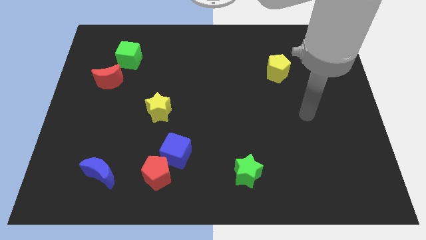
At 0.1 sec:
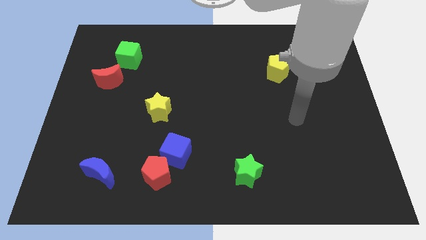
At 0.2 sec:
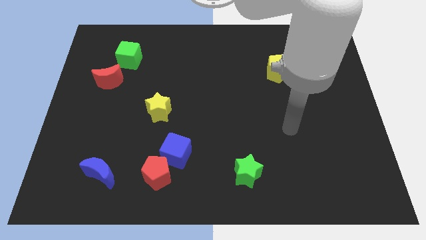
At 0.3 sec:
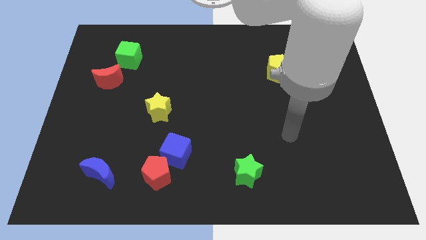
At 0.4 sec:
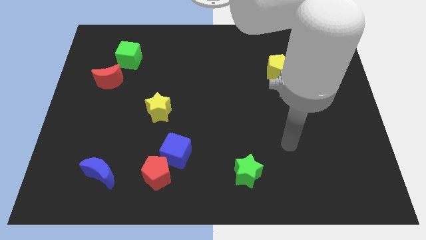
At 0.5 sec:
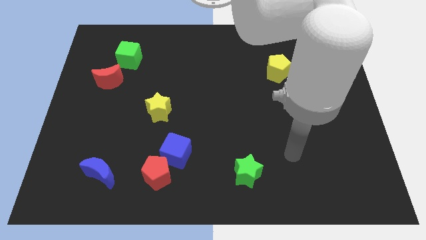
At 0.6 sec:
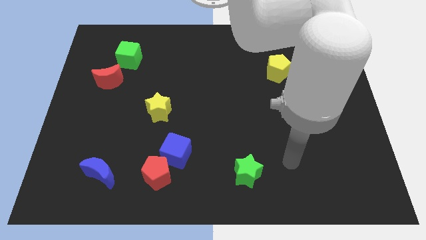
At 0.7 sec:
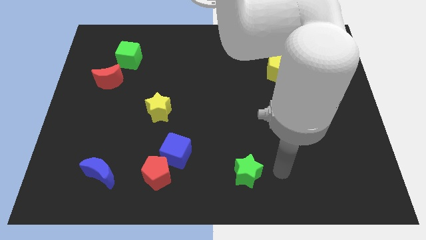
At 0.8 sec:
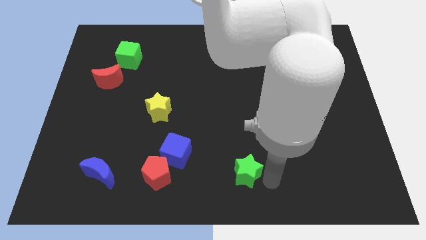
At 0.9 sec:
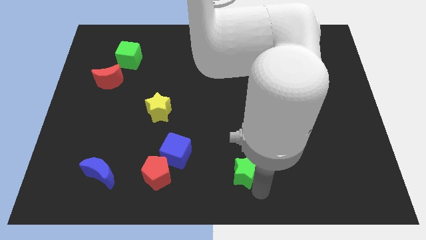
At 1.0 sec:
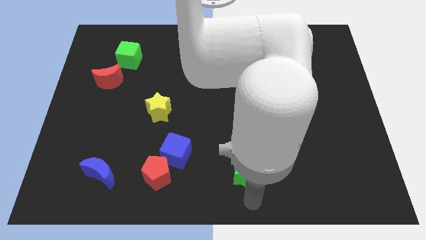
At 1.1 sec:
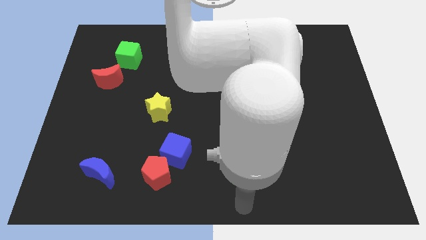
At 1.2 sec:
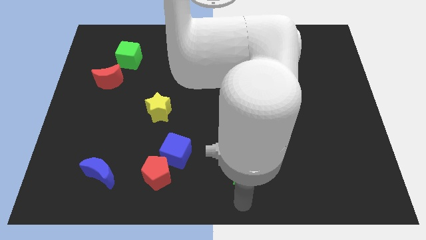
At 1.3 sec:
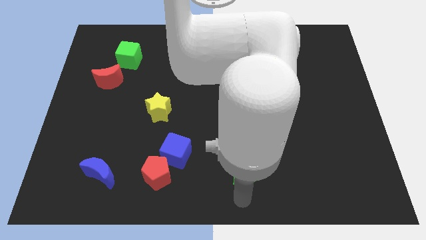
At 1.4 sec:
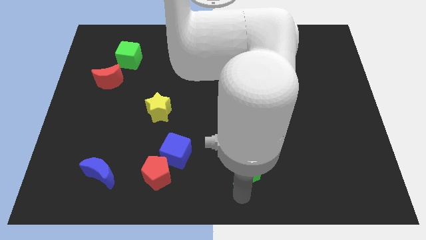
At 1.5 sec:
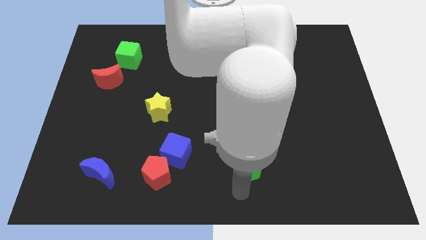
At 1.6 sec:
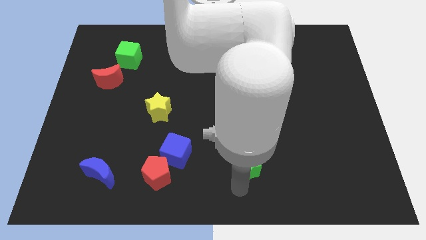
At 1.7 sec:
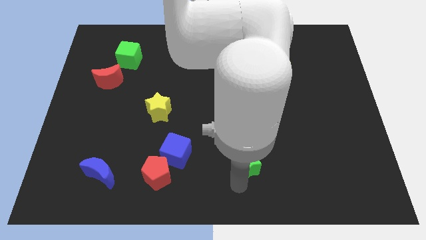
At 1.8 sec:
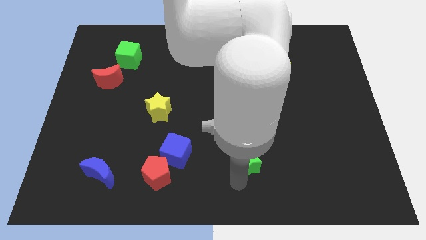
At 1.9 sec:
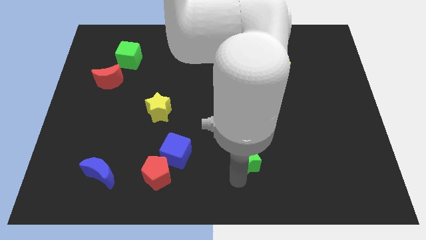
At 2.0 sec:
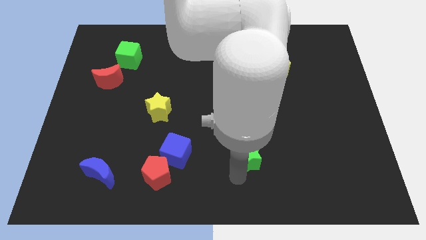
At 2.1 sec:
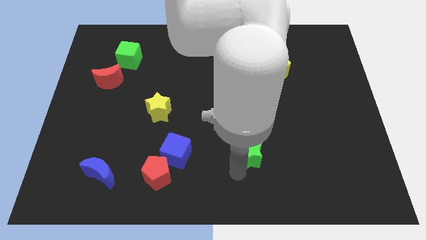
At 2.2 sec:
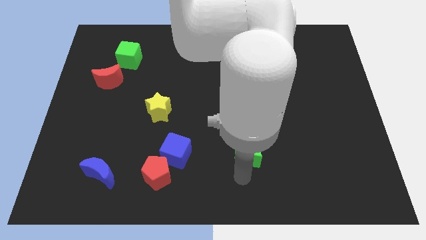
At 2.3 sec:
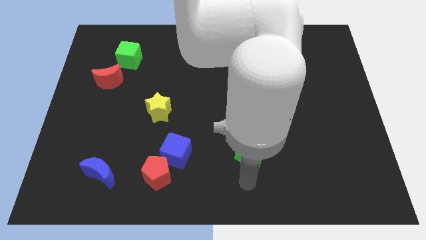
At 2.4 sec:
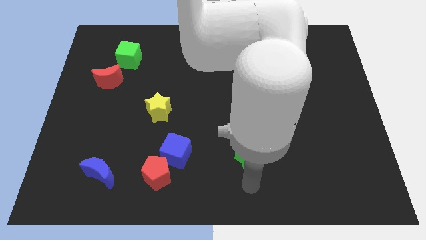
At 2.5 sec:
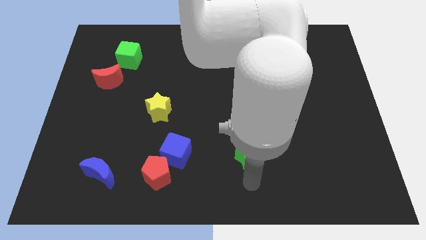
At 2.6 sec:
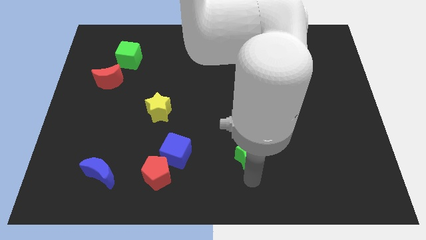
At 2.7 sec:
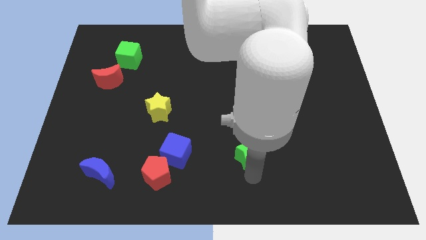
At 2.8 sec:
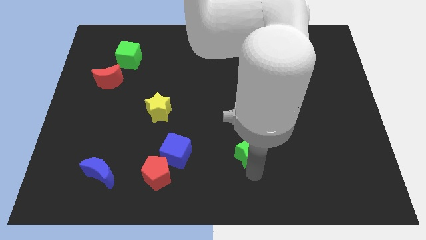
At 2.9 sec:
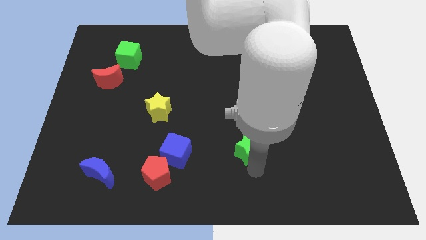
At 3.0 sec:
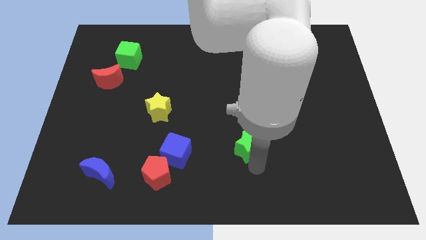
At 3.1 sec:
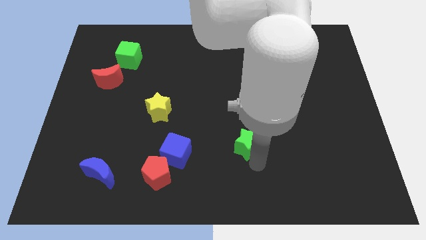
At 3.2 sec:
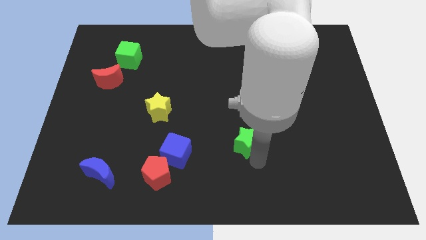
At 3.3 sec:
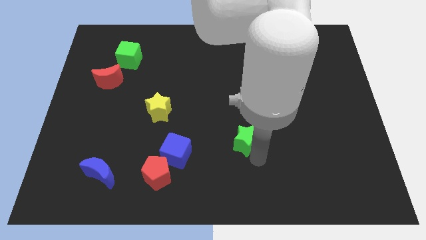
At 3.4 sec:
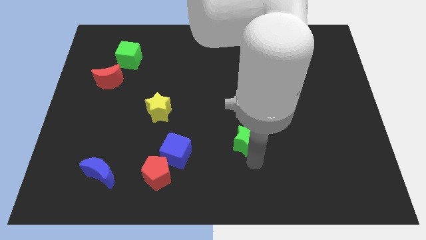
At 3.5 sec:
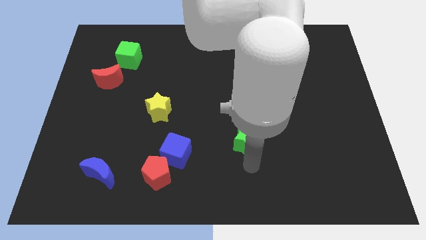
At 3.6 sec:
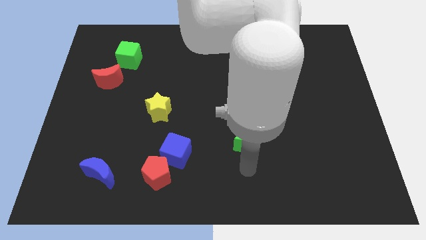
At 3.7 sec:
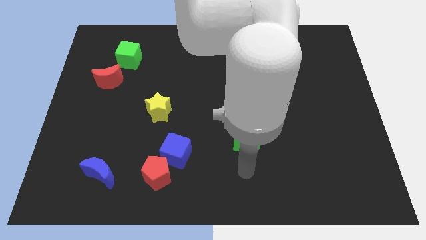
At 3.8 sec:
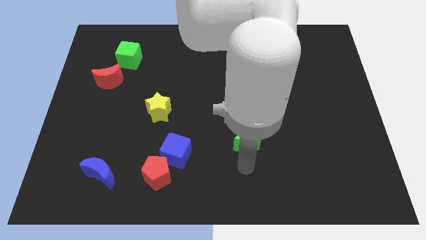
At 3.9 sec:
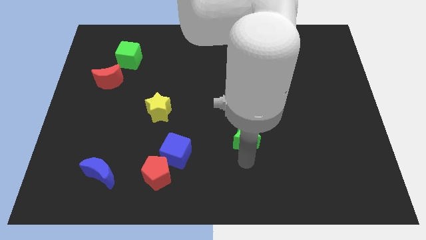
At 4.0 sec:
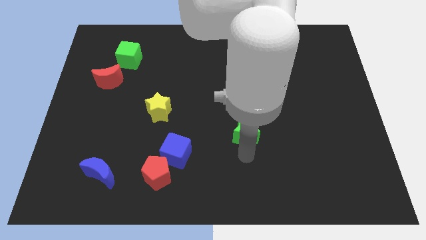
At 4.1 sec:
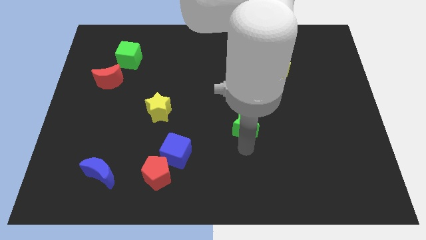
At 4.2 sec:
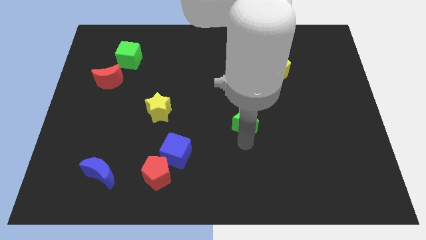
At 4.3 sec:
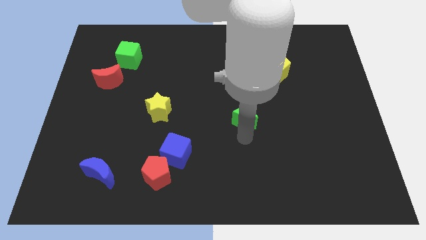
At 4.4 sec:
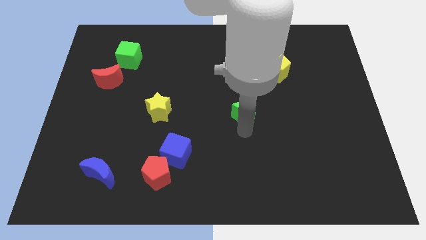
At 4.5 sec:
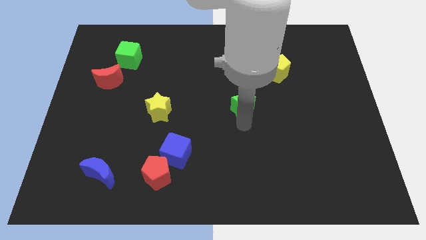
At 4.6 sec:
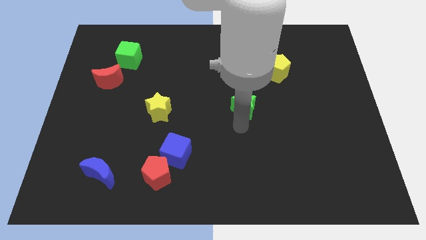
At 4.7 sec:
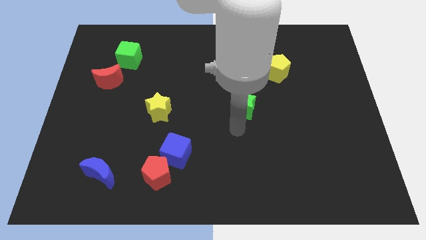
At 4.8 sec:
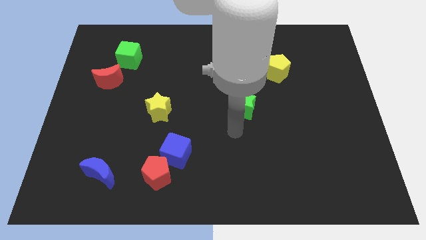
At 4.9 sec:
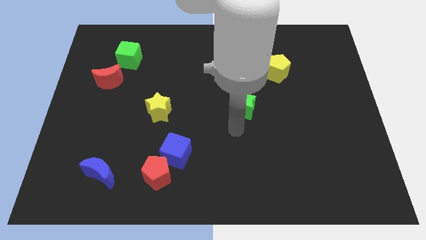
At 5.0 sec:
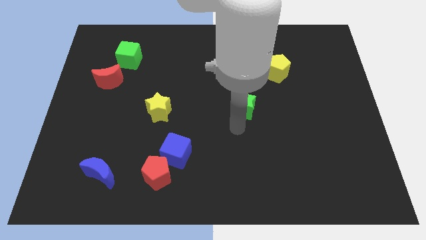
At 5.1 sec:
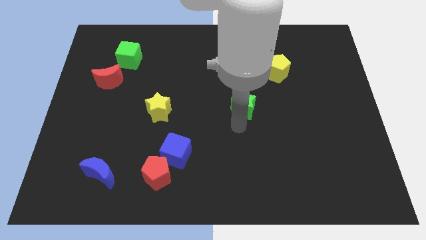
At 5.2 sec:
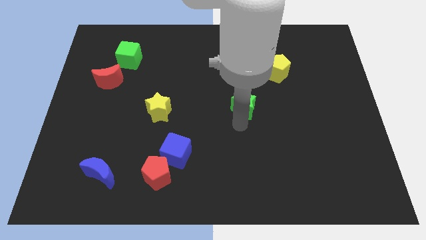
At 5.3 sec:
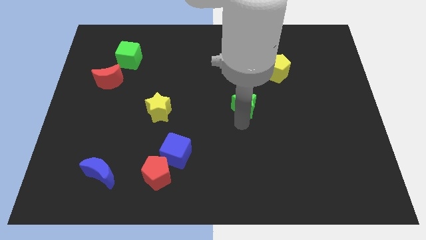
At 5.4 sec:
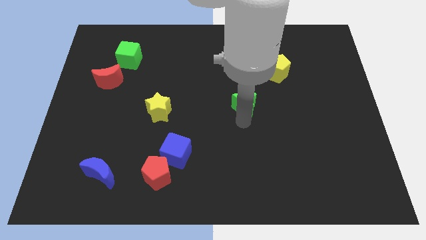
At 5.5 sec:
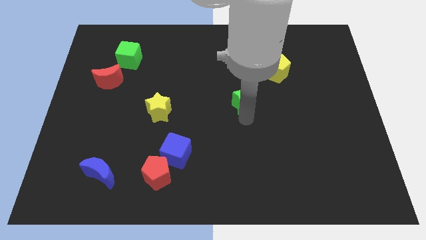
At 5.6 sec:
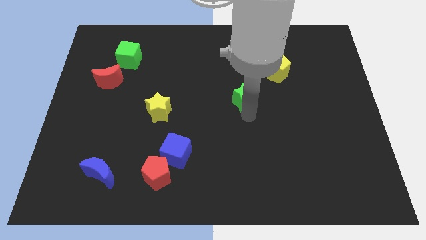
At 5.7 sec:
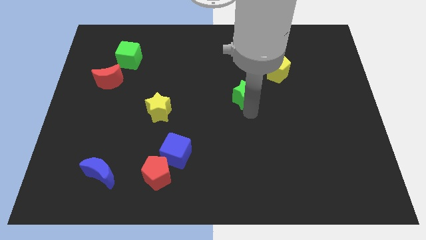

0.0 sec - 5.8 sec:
push the green star up

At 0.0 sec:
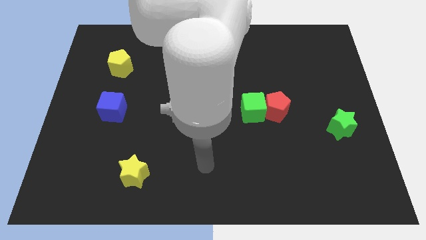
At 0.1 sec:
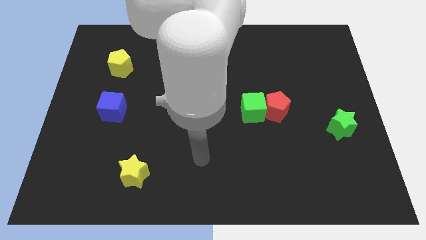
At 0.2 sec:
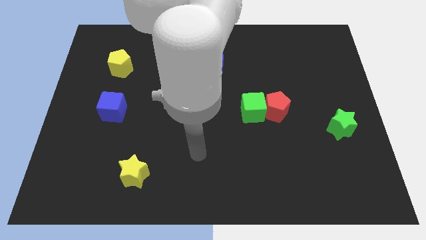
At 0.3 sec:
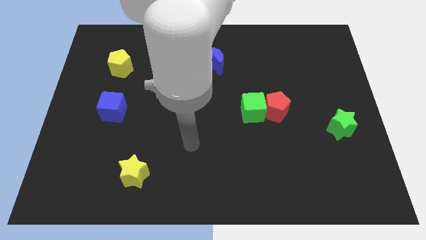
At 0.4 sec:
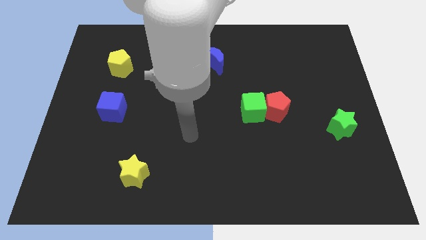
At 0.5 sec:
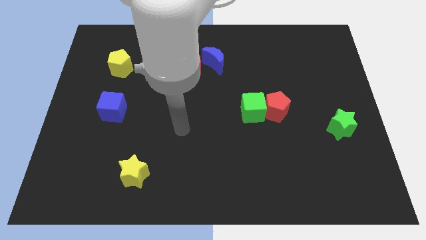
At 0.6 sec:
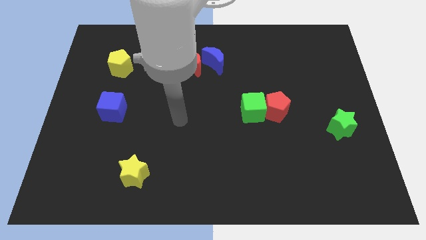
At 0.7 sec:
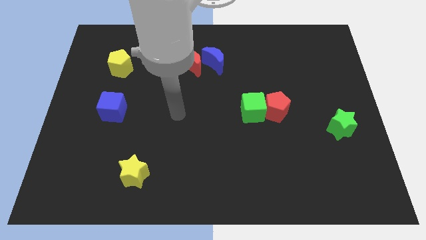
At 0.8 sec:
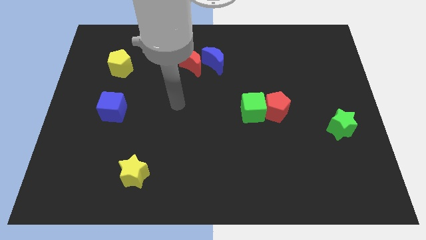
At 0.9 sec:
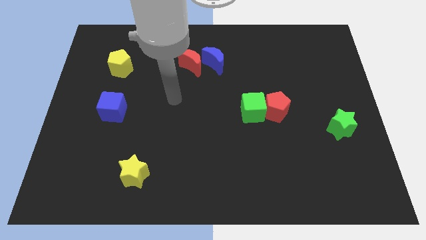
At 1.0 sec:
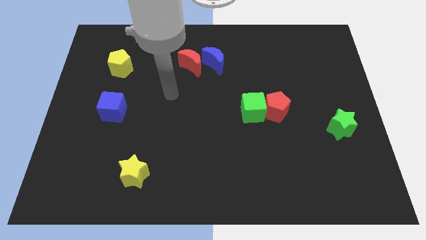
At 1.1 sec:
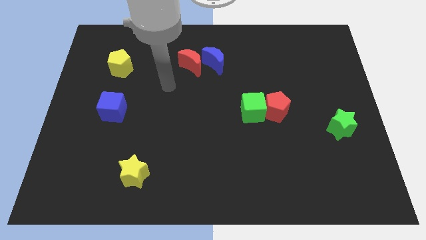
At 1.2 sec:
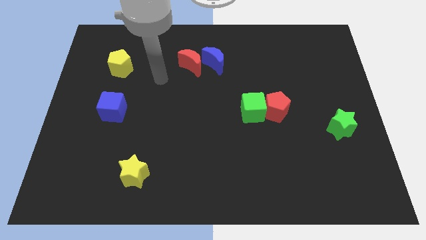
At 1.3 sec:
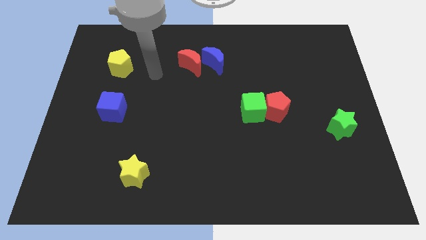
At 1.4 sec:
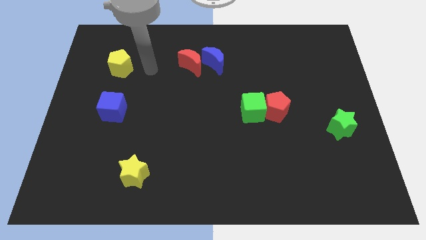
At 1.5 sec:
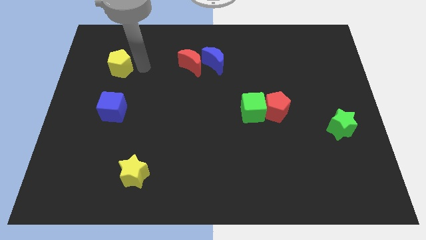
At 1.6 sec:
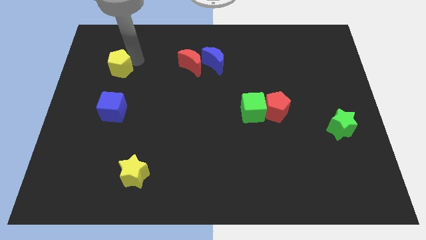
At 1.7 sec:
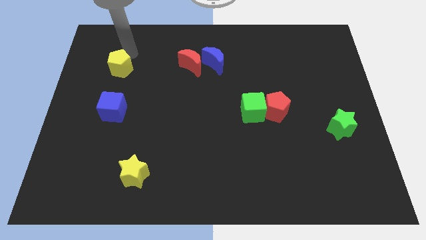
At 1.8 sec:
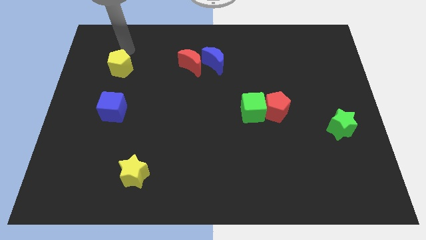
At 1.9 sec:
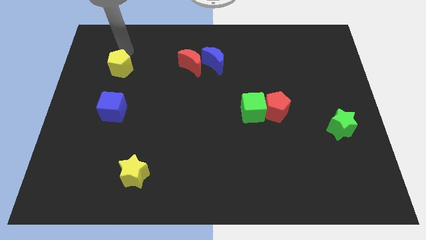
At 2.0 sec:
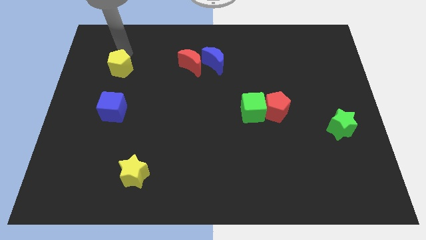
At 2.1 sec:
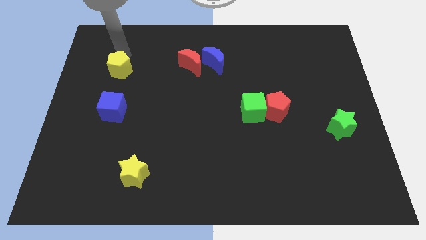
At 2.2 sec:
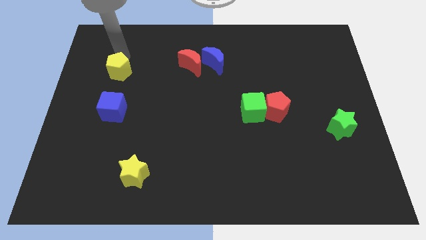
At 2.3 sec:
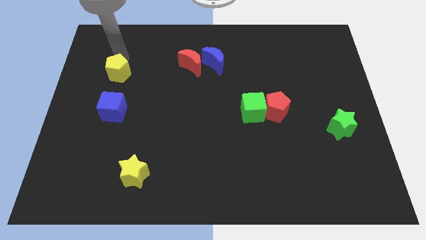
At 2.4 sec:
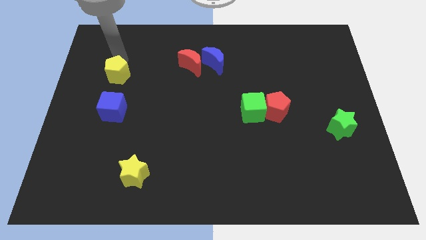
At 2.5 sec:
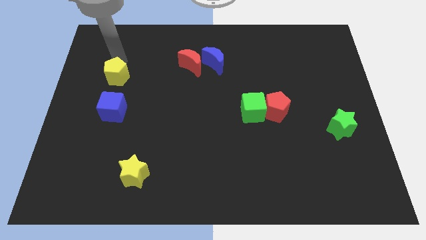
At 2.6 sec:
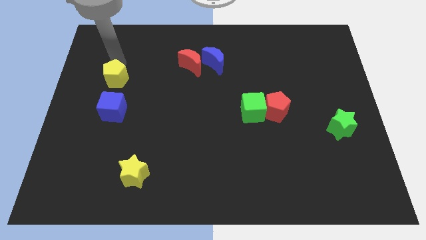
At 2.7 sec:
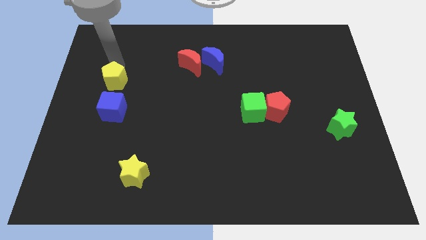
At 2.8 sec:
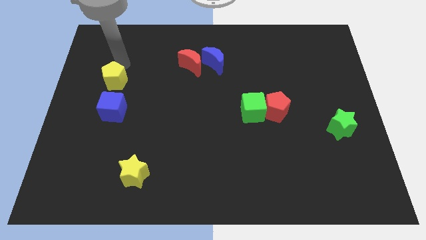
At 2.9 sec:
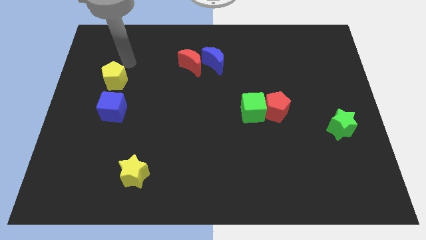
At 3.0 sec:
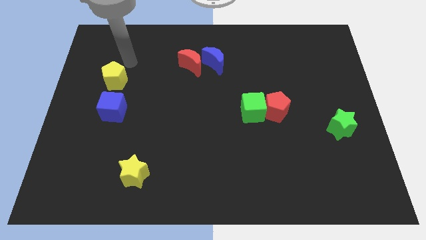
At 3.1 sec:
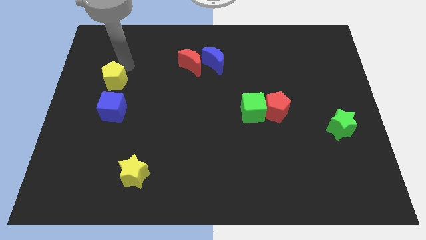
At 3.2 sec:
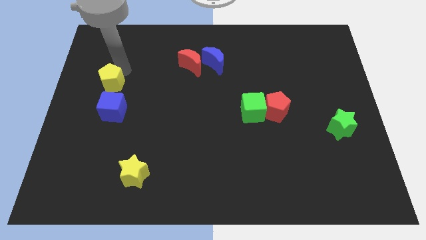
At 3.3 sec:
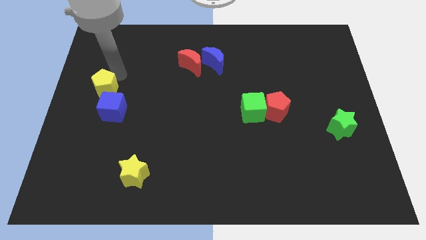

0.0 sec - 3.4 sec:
slide the yellow pentagon slightly downwards
